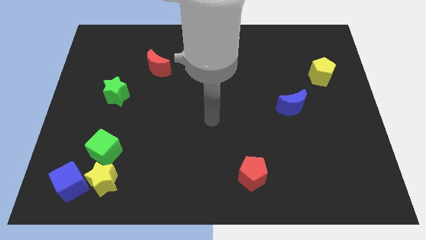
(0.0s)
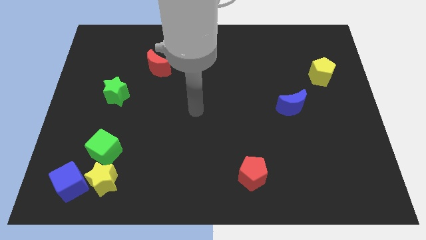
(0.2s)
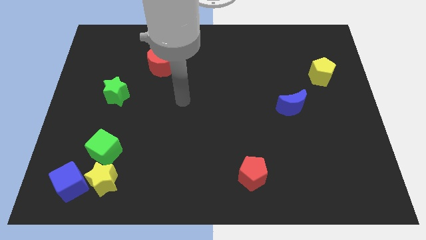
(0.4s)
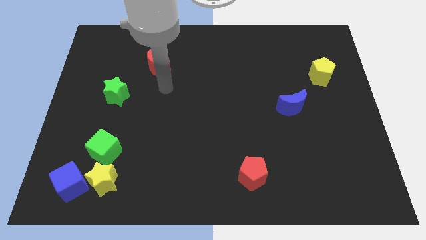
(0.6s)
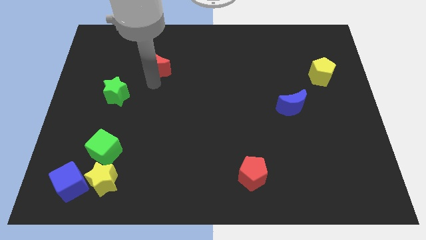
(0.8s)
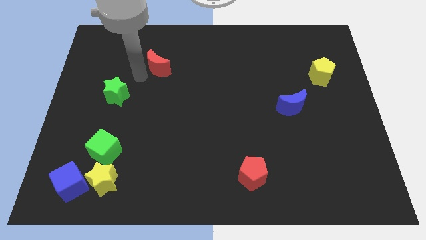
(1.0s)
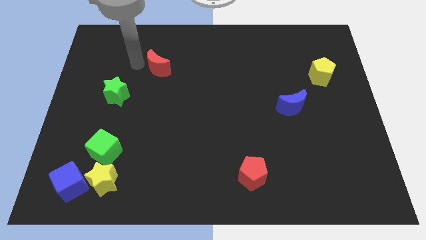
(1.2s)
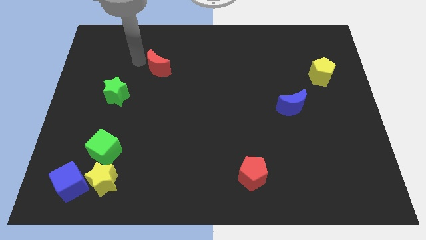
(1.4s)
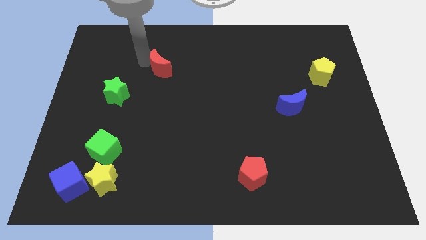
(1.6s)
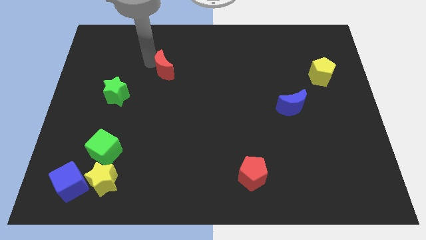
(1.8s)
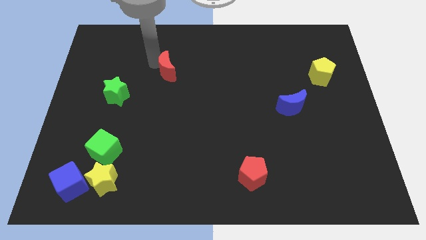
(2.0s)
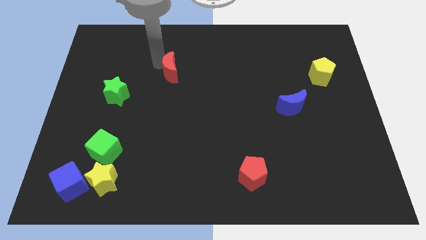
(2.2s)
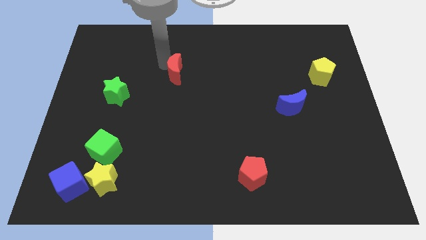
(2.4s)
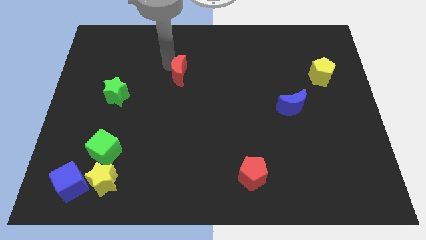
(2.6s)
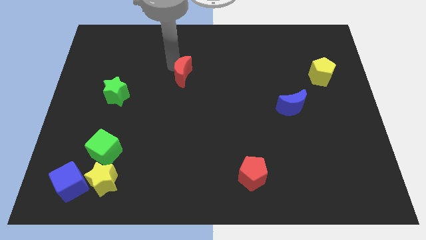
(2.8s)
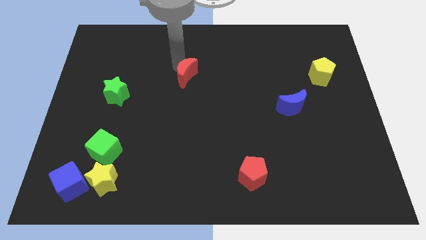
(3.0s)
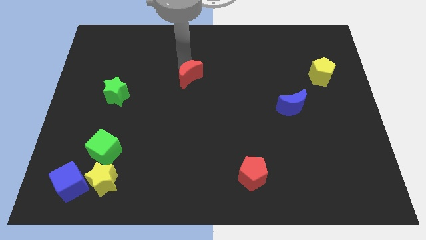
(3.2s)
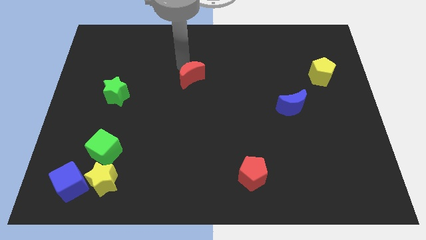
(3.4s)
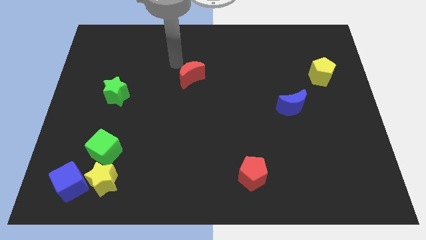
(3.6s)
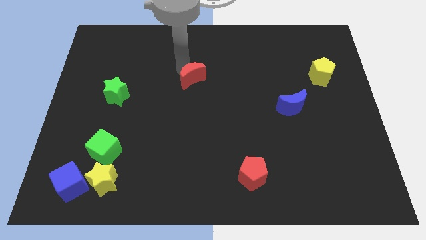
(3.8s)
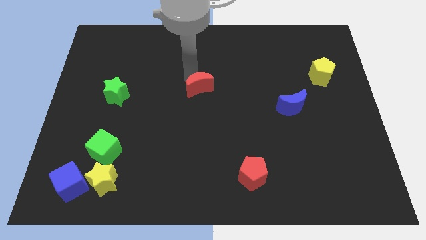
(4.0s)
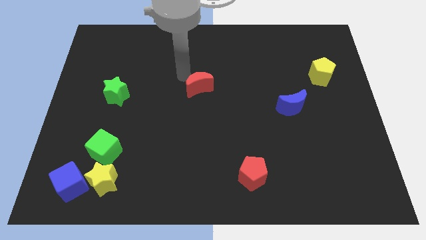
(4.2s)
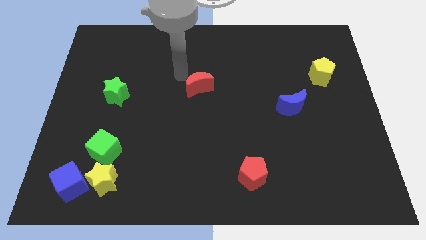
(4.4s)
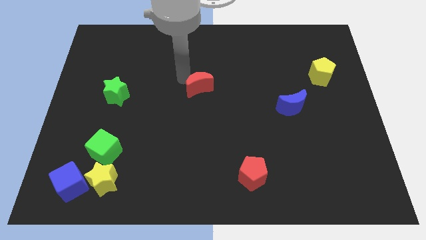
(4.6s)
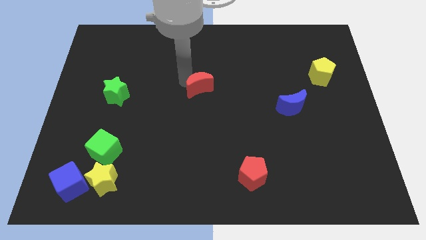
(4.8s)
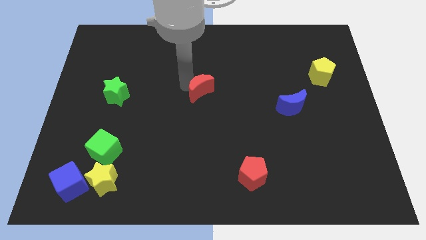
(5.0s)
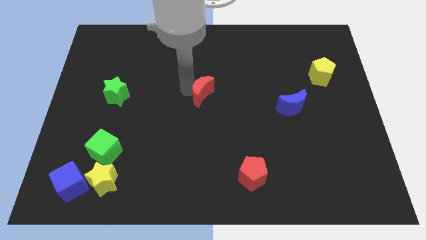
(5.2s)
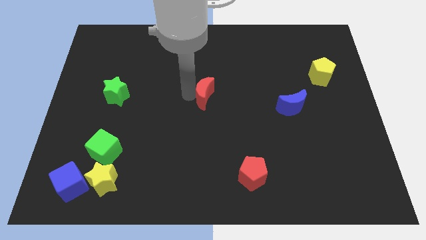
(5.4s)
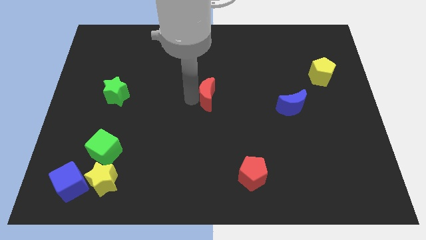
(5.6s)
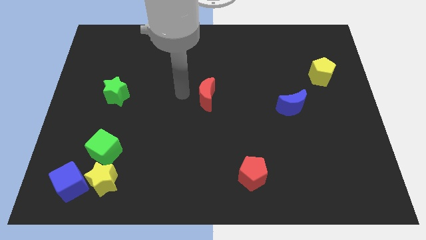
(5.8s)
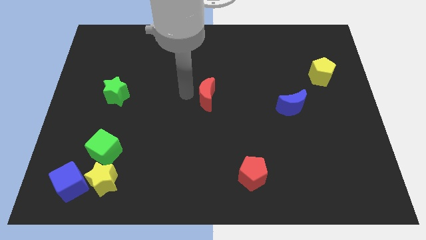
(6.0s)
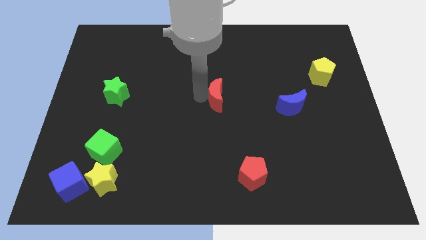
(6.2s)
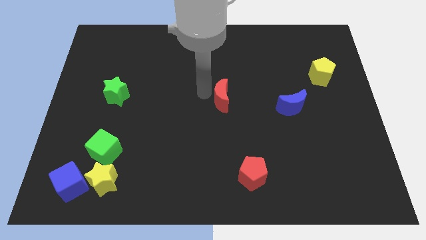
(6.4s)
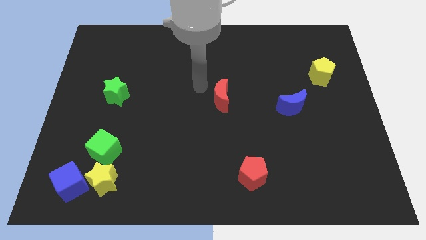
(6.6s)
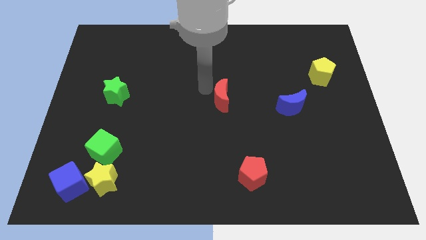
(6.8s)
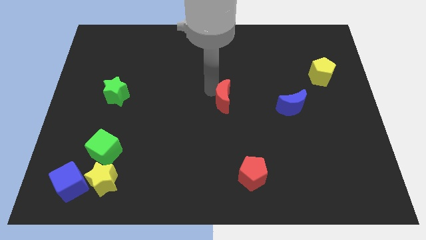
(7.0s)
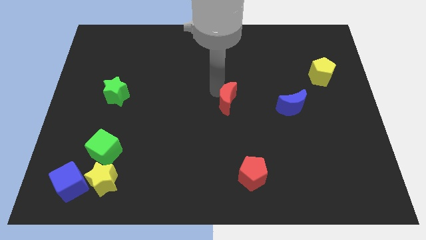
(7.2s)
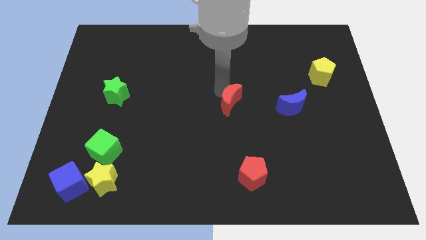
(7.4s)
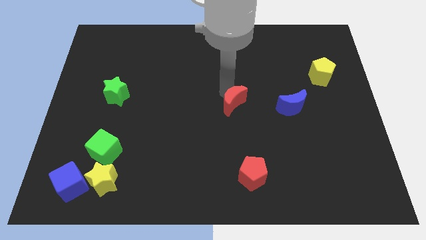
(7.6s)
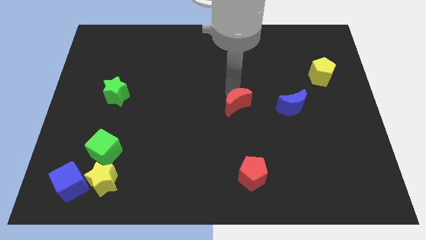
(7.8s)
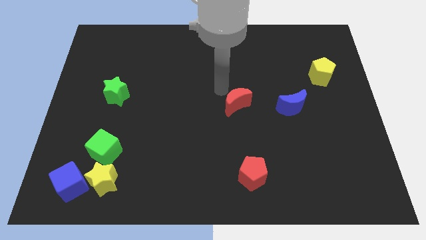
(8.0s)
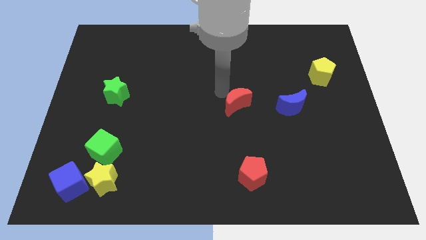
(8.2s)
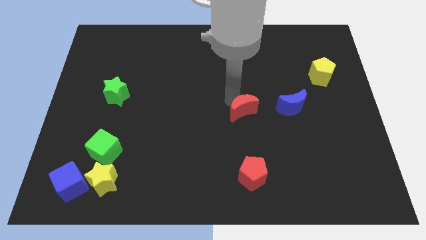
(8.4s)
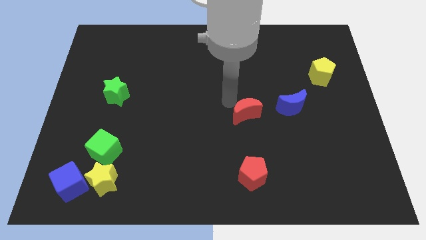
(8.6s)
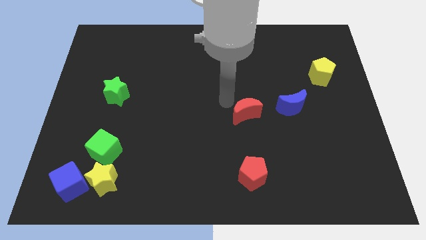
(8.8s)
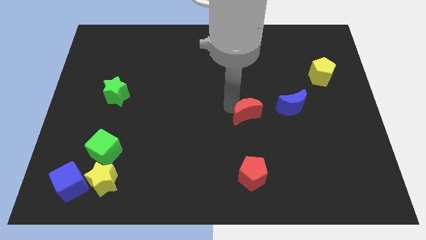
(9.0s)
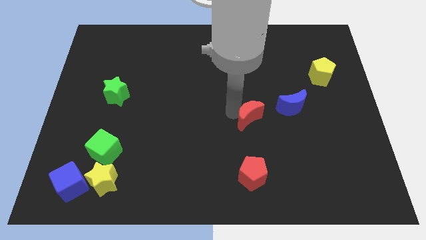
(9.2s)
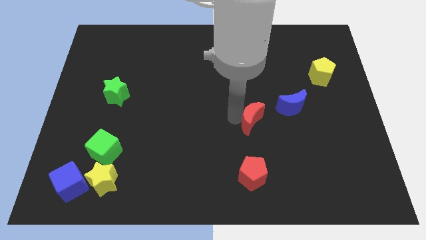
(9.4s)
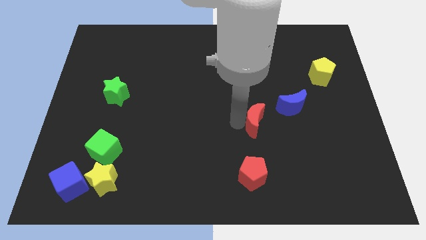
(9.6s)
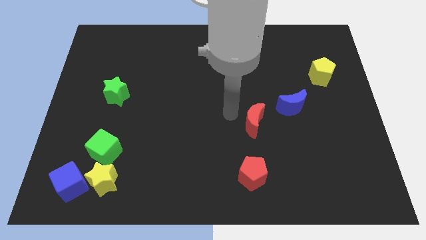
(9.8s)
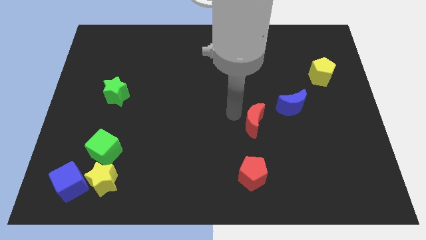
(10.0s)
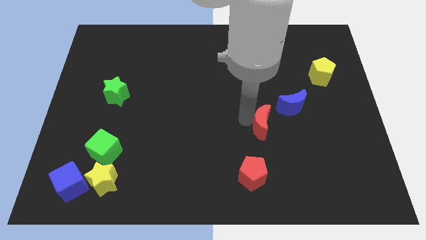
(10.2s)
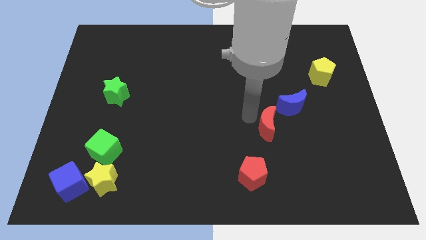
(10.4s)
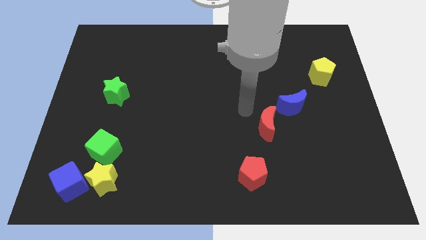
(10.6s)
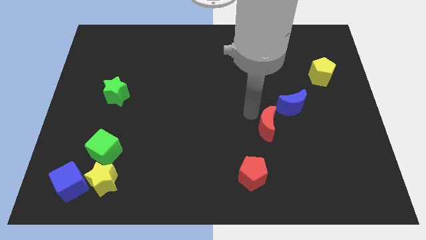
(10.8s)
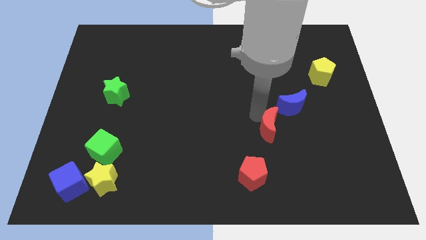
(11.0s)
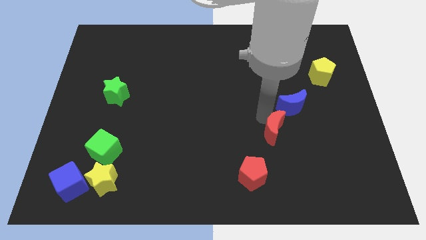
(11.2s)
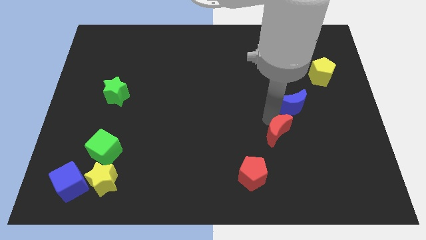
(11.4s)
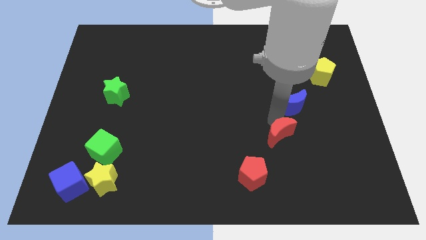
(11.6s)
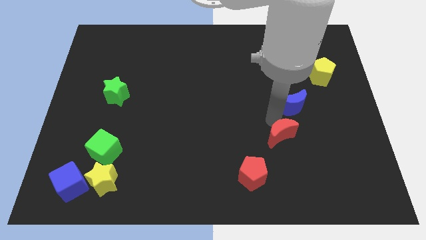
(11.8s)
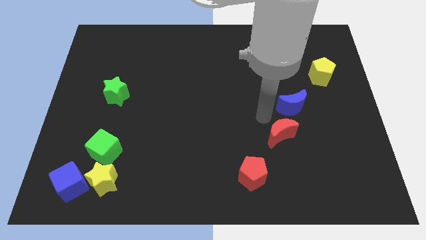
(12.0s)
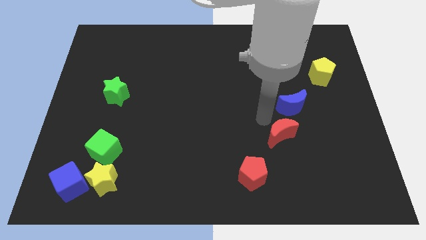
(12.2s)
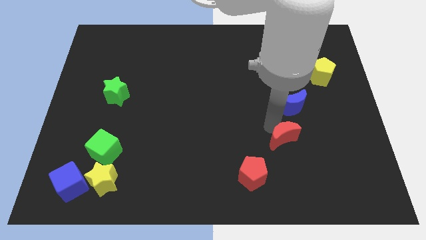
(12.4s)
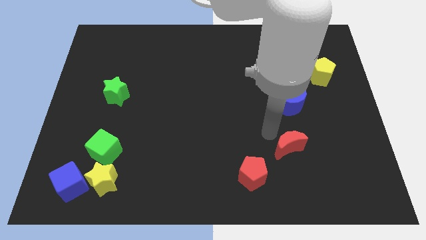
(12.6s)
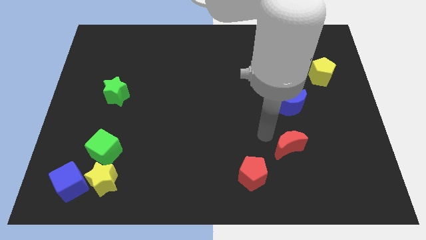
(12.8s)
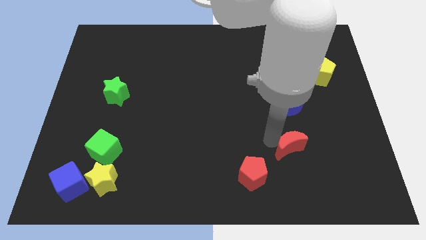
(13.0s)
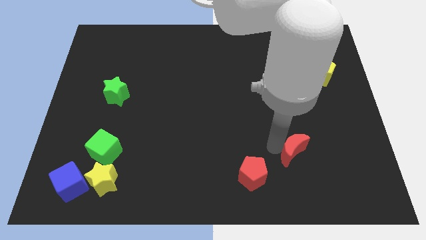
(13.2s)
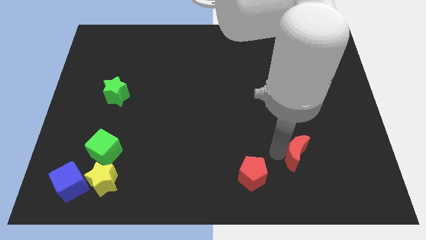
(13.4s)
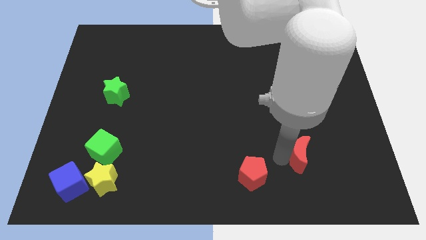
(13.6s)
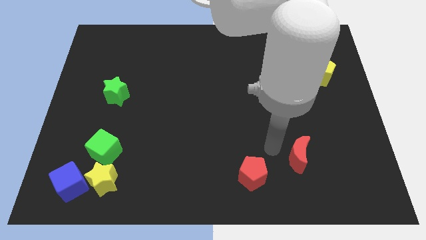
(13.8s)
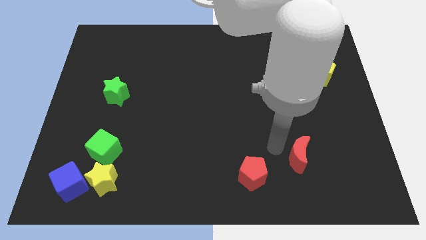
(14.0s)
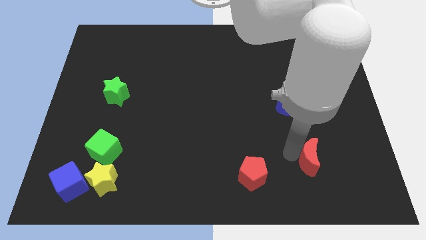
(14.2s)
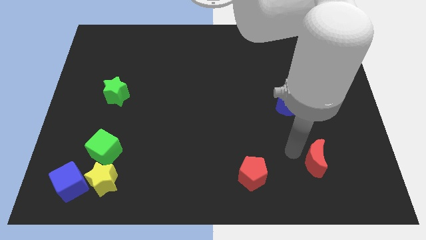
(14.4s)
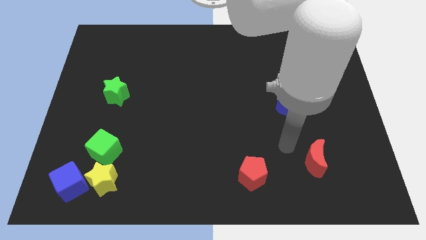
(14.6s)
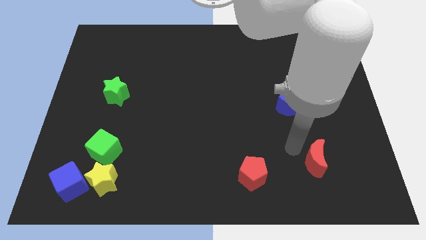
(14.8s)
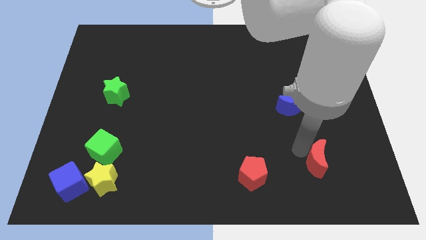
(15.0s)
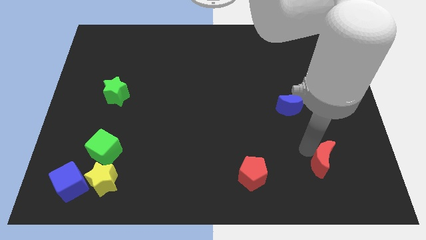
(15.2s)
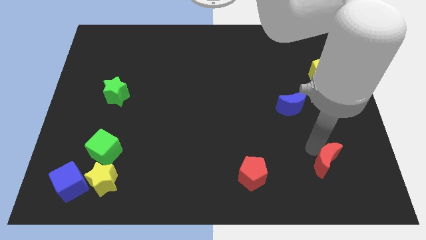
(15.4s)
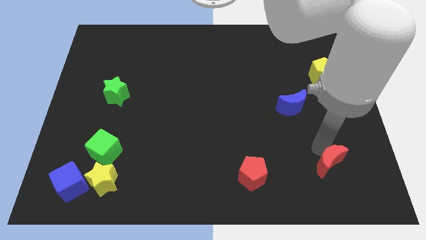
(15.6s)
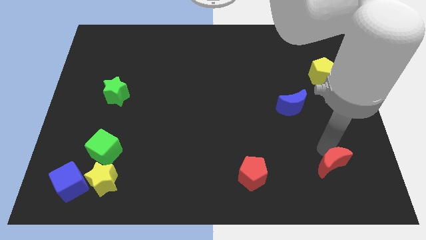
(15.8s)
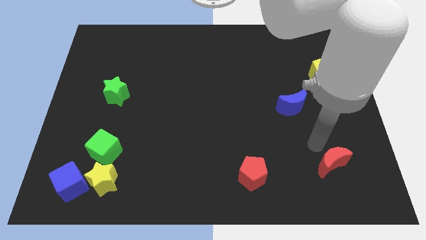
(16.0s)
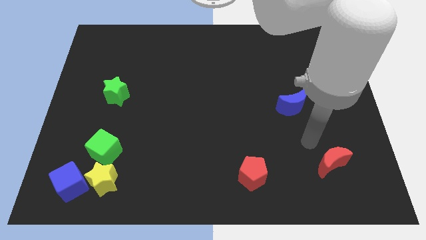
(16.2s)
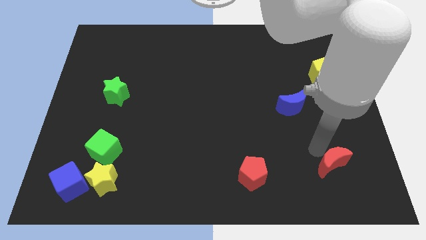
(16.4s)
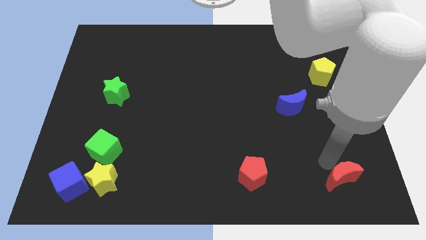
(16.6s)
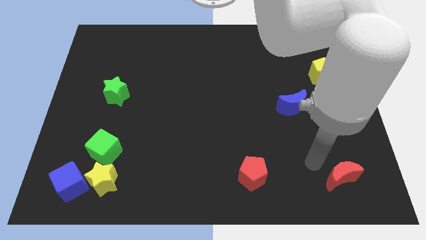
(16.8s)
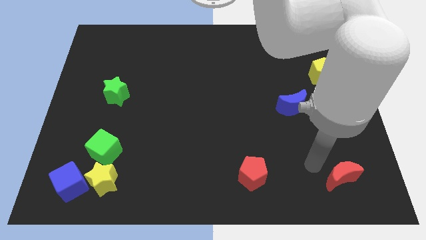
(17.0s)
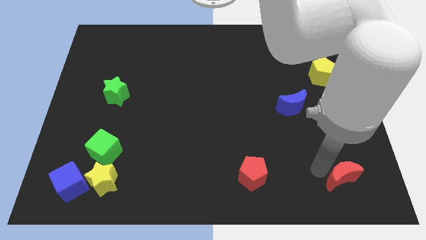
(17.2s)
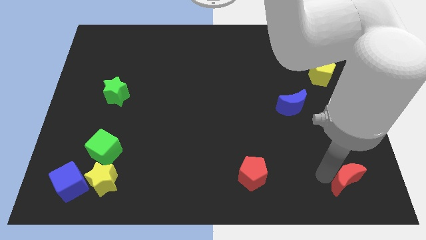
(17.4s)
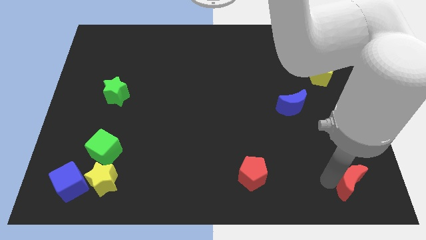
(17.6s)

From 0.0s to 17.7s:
slide the red moon to the bottom right
